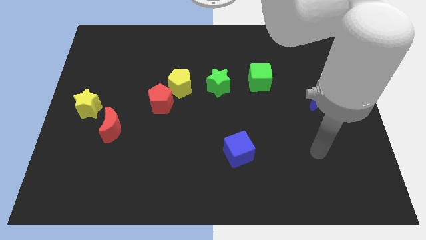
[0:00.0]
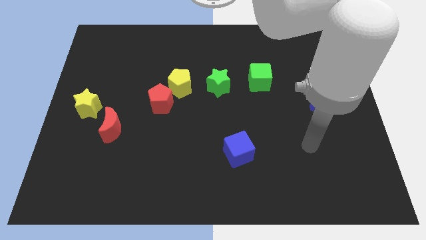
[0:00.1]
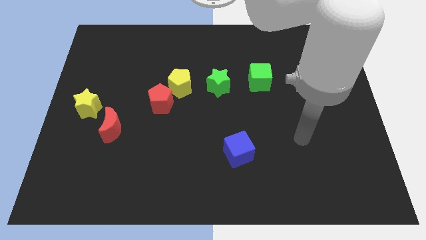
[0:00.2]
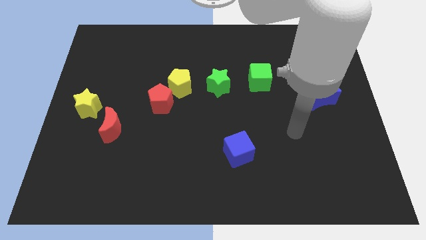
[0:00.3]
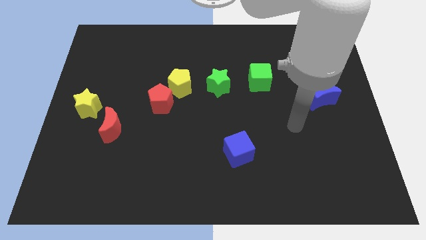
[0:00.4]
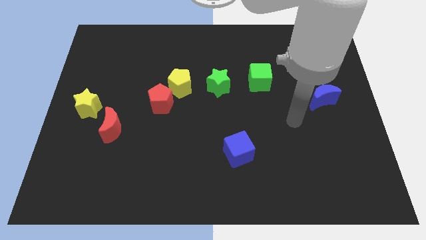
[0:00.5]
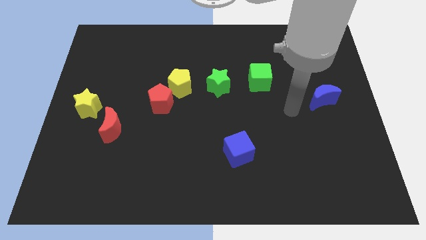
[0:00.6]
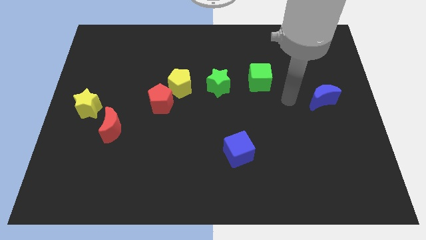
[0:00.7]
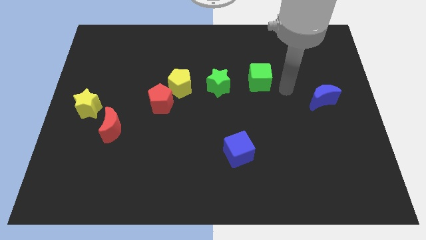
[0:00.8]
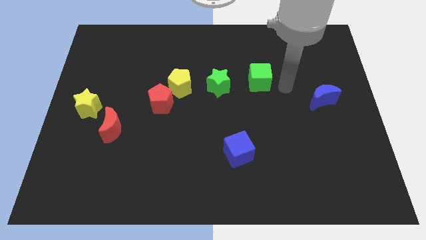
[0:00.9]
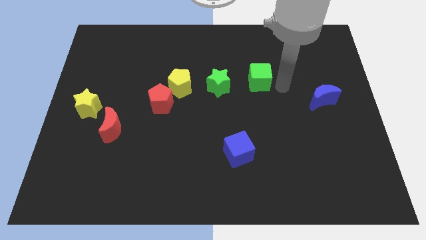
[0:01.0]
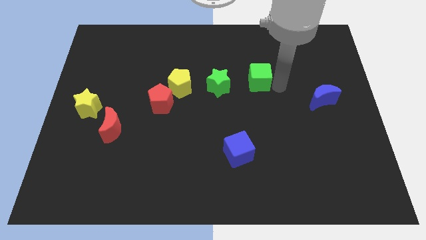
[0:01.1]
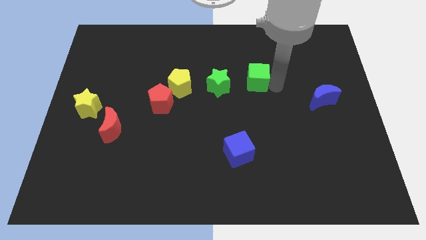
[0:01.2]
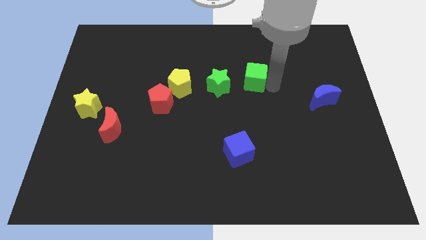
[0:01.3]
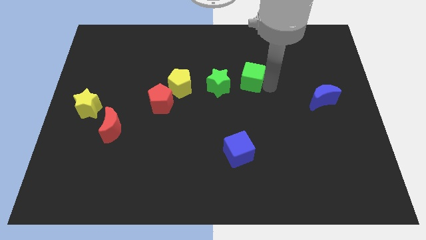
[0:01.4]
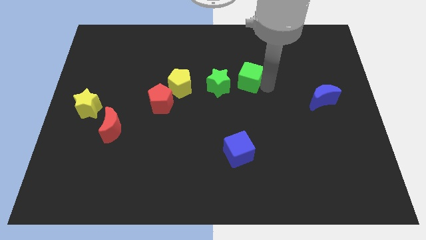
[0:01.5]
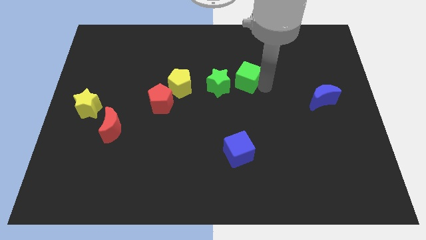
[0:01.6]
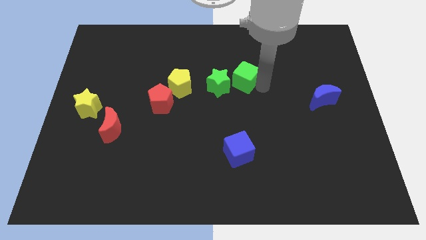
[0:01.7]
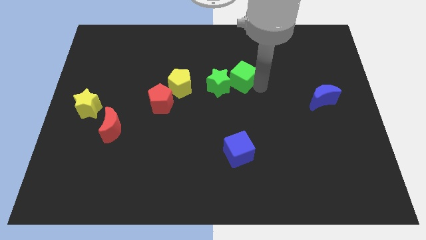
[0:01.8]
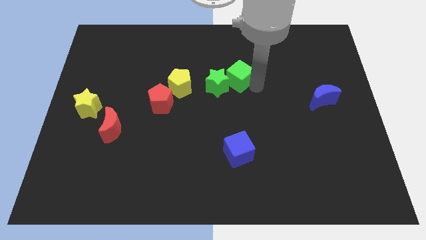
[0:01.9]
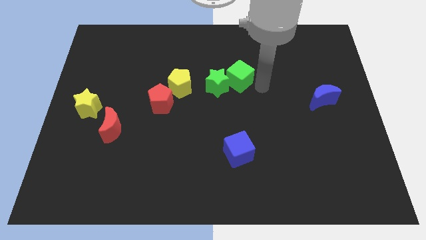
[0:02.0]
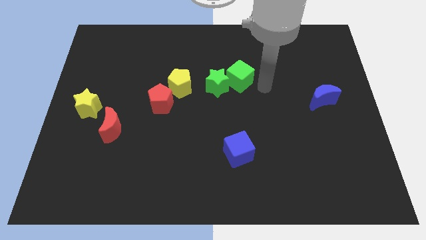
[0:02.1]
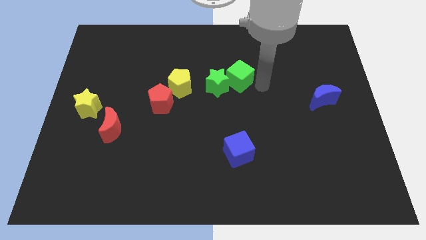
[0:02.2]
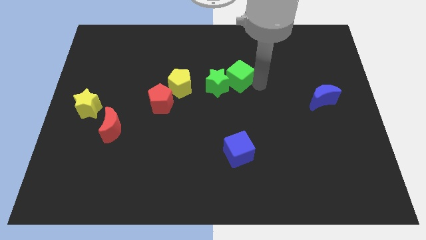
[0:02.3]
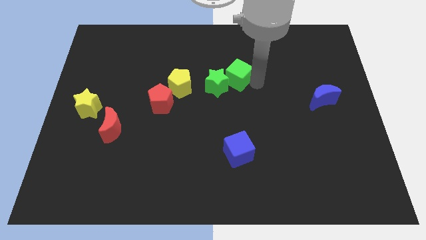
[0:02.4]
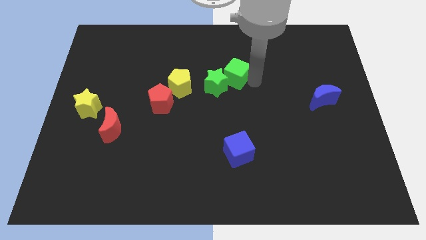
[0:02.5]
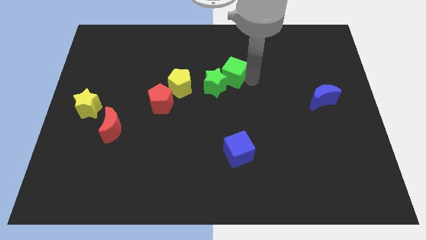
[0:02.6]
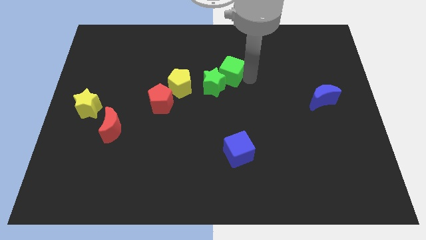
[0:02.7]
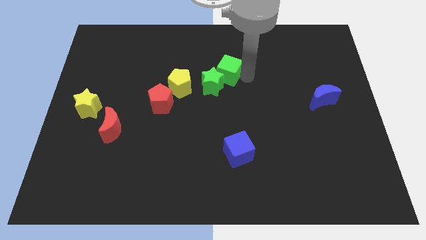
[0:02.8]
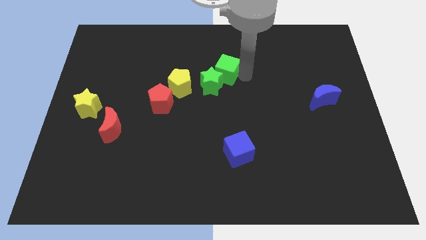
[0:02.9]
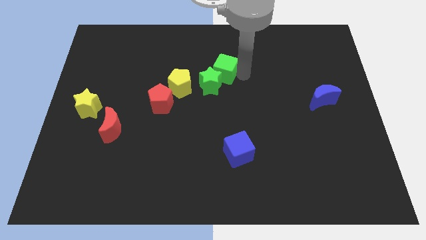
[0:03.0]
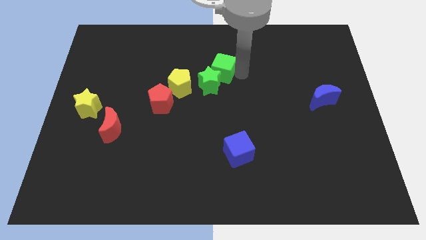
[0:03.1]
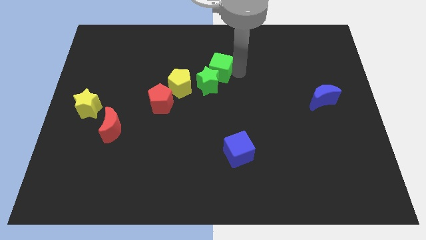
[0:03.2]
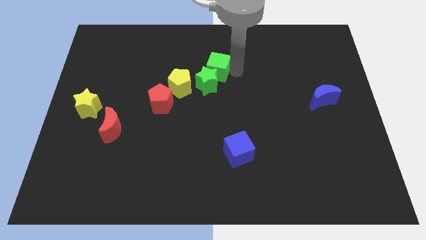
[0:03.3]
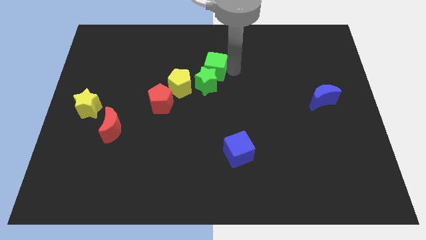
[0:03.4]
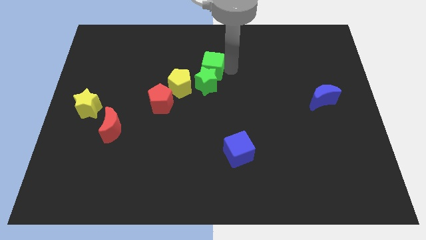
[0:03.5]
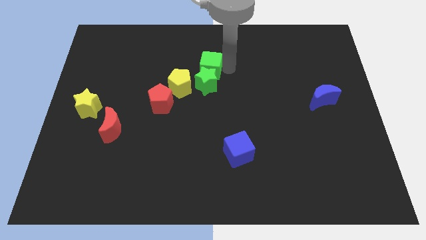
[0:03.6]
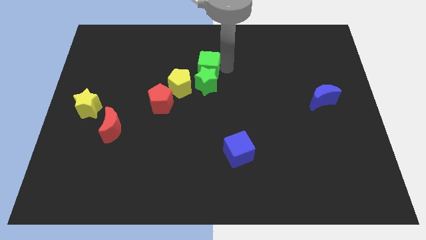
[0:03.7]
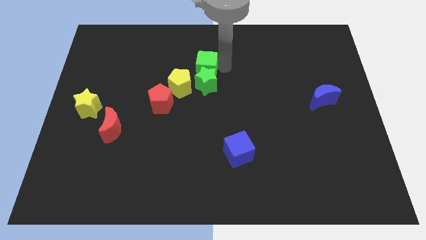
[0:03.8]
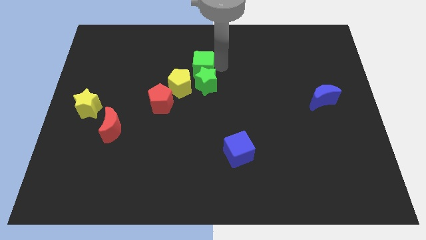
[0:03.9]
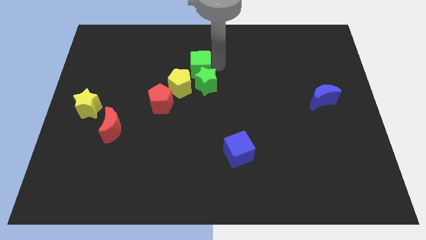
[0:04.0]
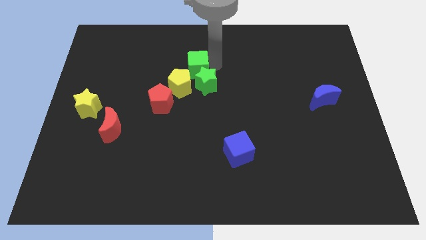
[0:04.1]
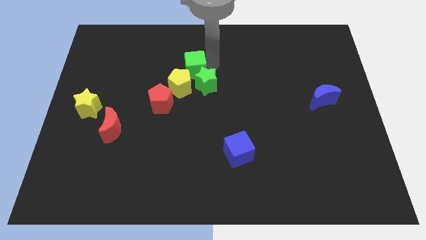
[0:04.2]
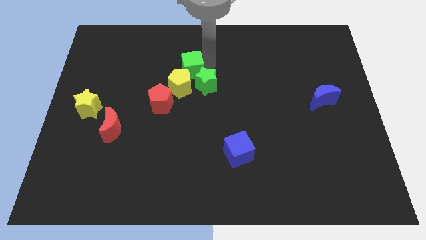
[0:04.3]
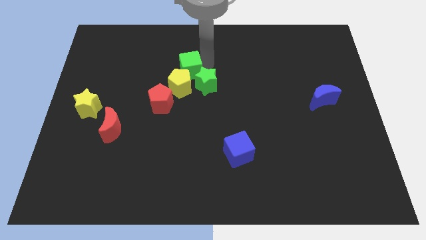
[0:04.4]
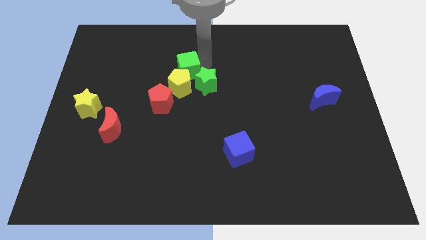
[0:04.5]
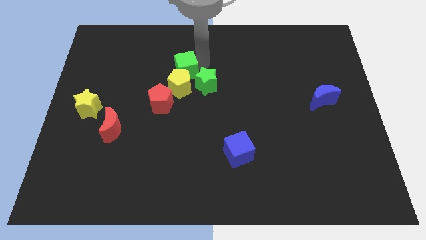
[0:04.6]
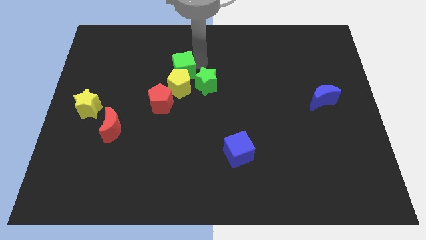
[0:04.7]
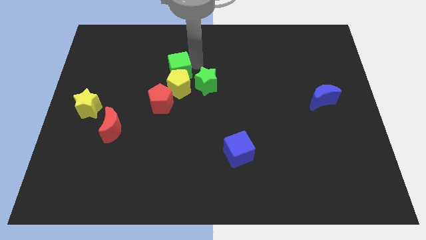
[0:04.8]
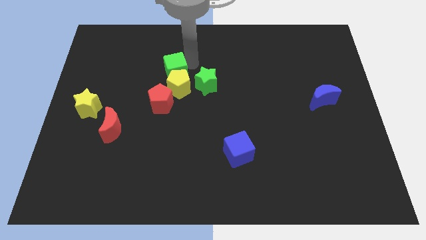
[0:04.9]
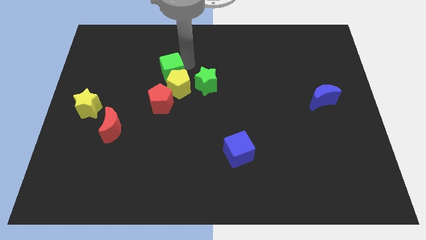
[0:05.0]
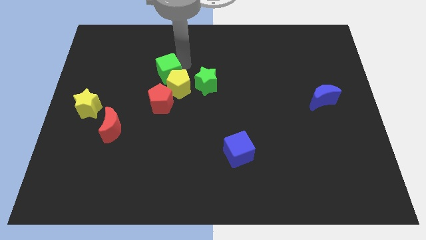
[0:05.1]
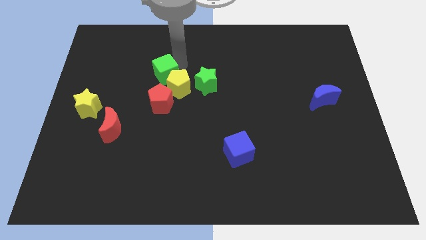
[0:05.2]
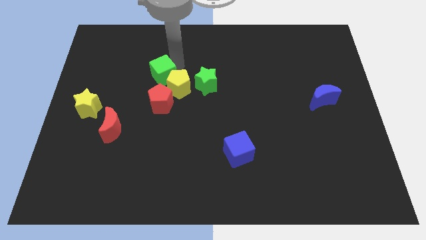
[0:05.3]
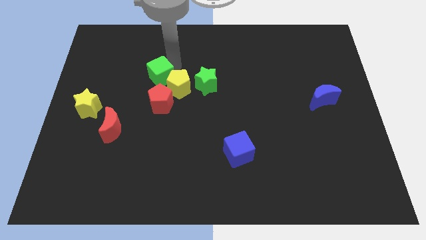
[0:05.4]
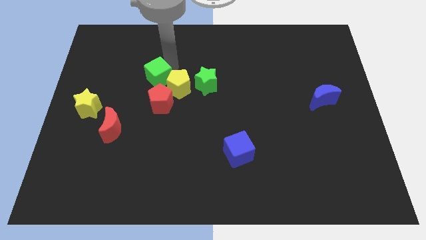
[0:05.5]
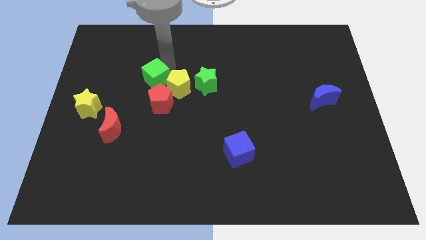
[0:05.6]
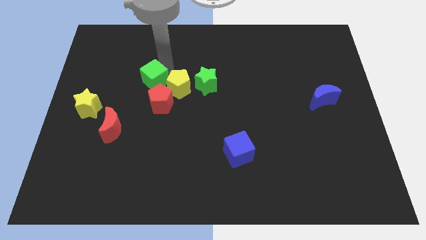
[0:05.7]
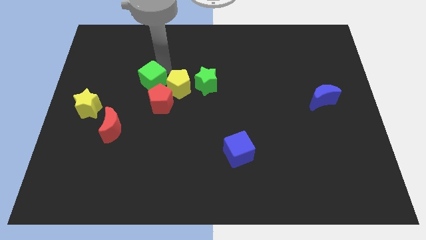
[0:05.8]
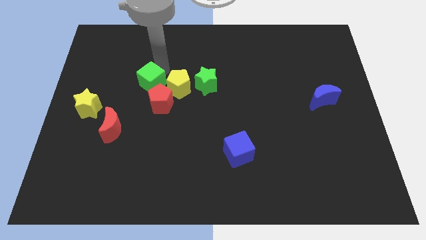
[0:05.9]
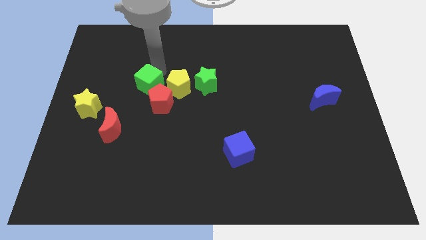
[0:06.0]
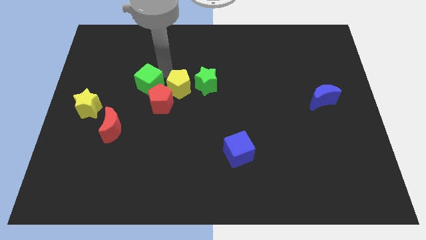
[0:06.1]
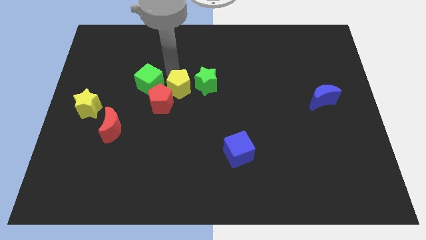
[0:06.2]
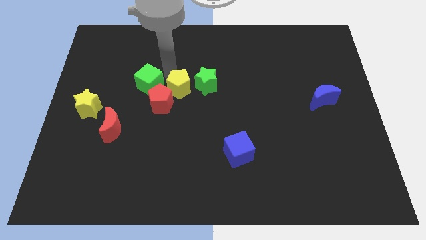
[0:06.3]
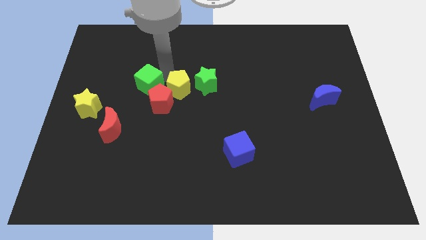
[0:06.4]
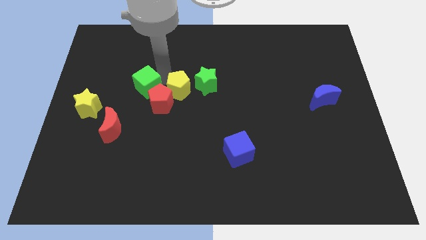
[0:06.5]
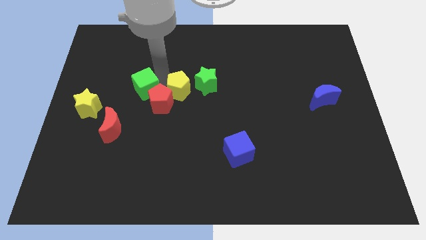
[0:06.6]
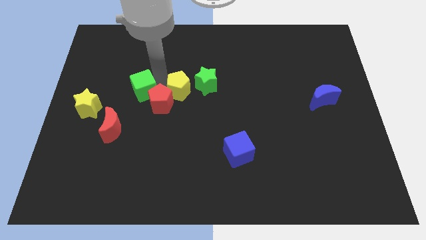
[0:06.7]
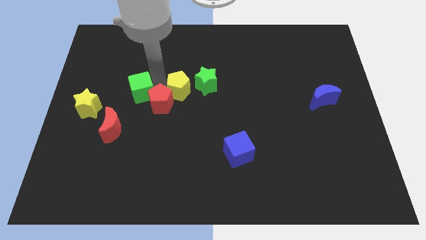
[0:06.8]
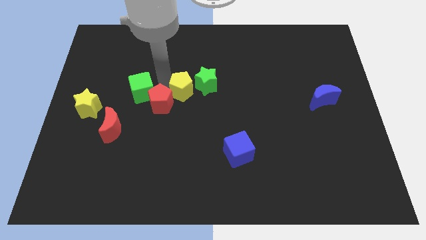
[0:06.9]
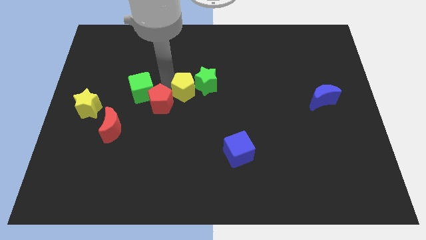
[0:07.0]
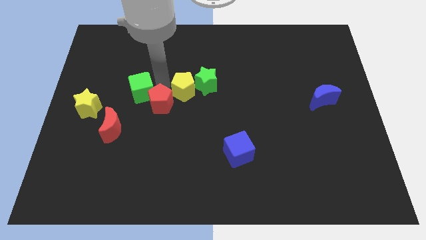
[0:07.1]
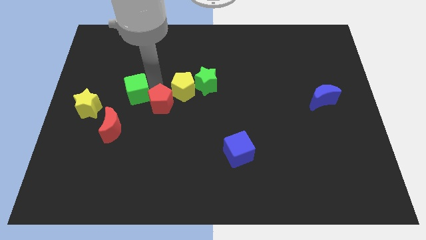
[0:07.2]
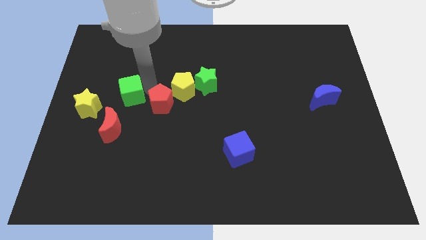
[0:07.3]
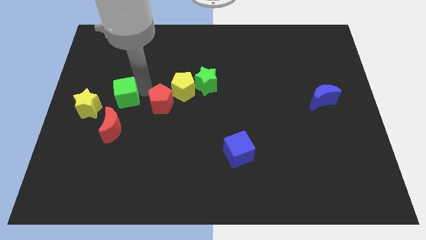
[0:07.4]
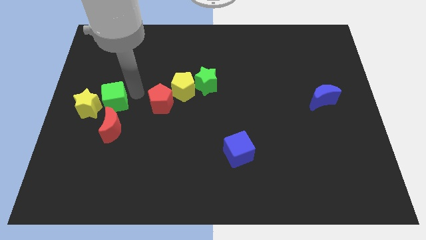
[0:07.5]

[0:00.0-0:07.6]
move the green cube to the yellow star
